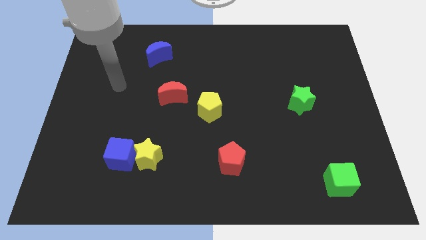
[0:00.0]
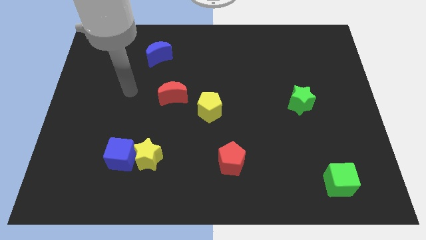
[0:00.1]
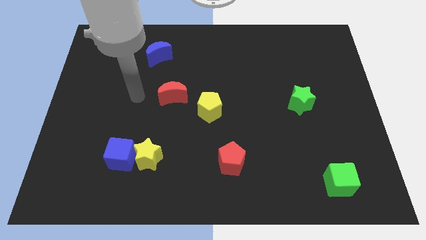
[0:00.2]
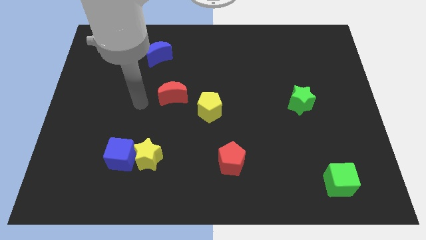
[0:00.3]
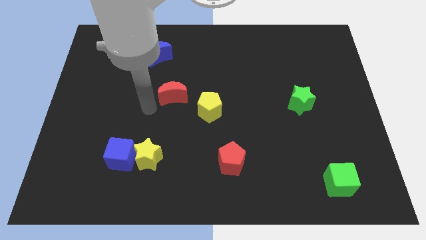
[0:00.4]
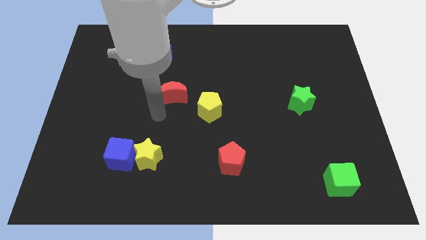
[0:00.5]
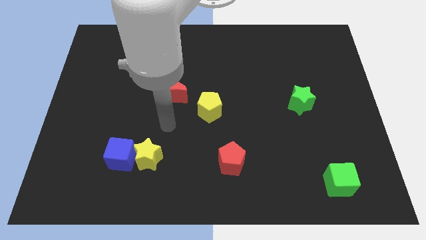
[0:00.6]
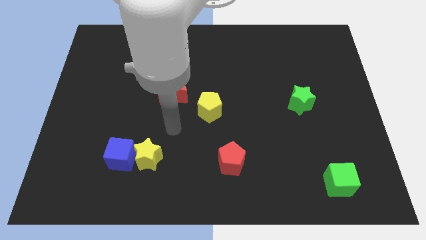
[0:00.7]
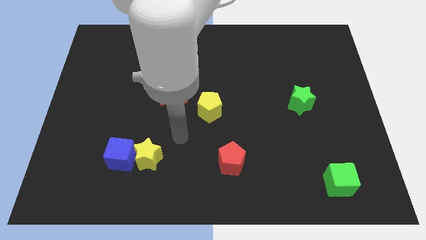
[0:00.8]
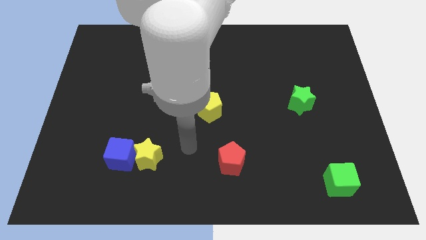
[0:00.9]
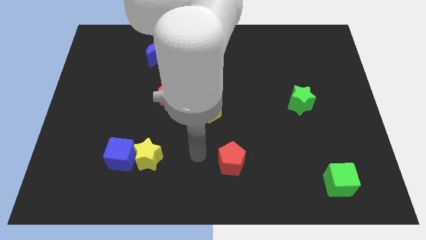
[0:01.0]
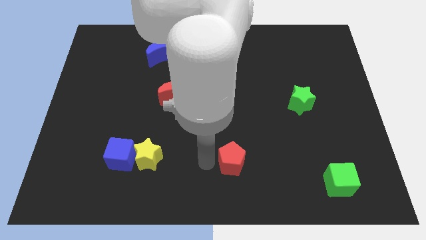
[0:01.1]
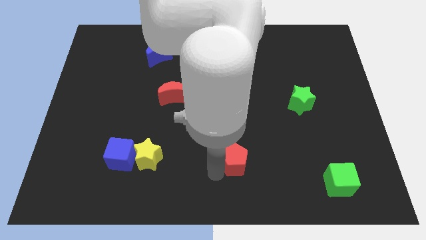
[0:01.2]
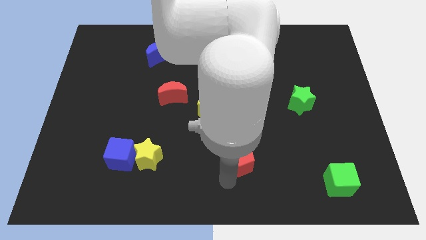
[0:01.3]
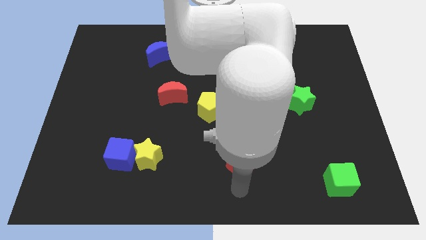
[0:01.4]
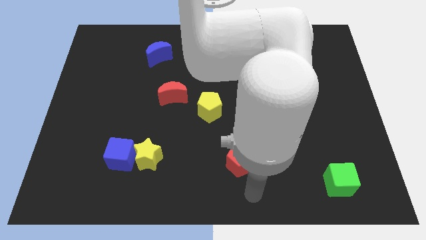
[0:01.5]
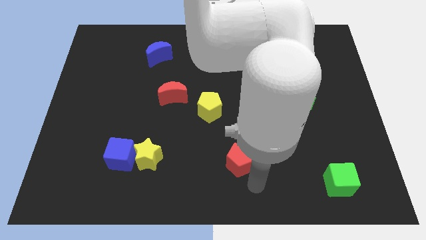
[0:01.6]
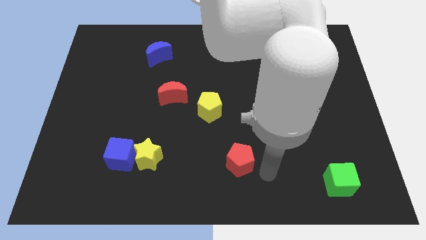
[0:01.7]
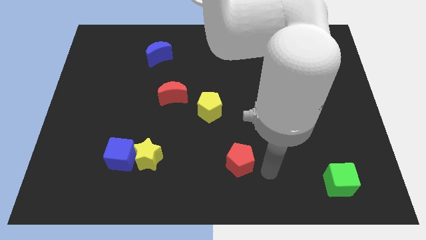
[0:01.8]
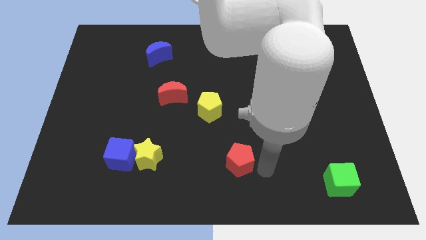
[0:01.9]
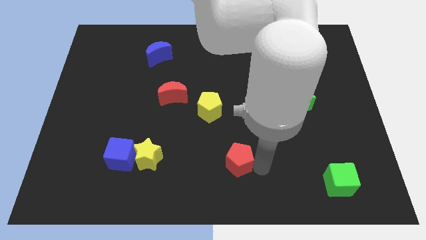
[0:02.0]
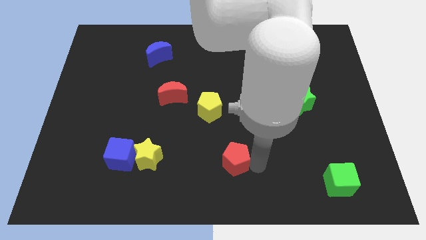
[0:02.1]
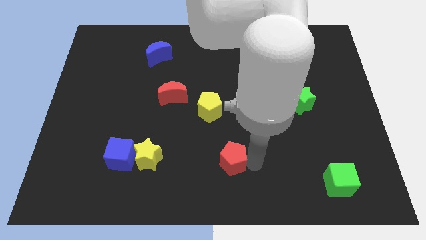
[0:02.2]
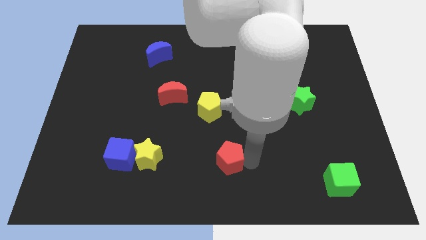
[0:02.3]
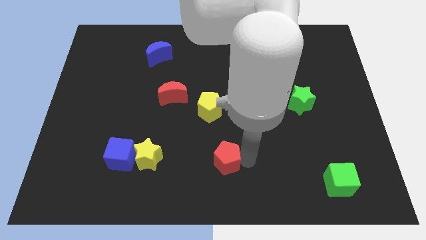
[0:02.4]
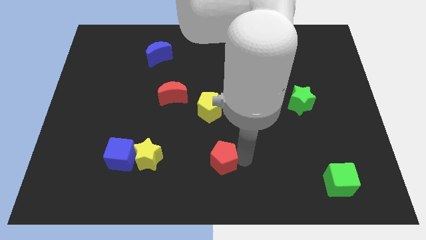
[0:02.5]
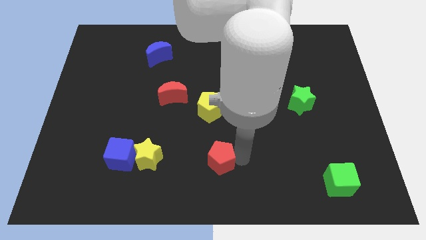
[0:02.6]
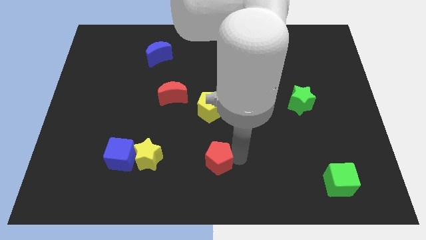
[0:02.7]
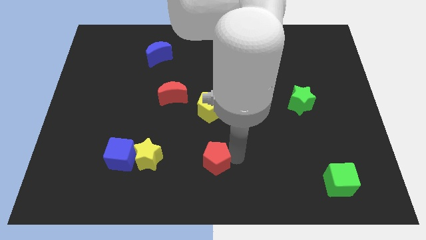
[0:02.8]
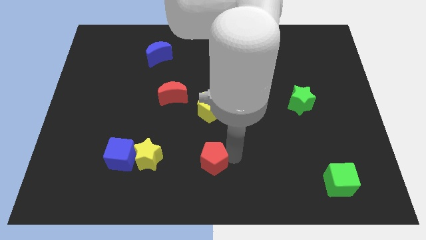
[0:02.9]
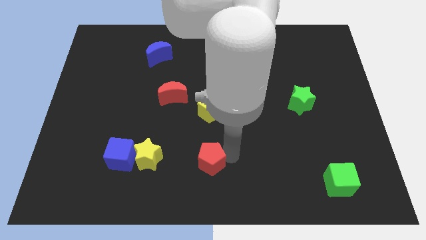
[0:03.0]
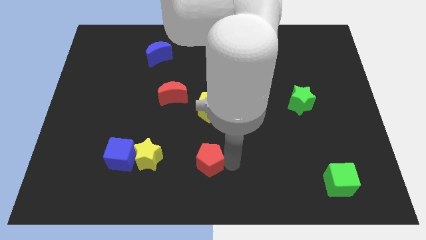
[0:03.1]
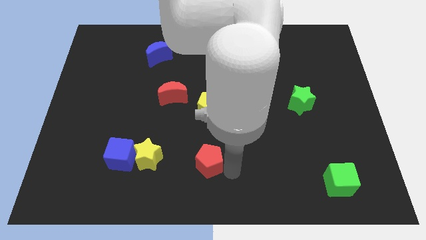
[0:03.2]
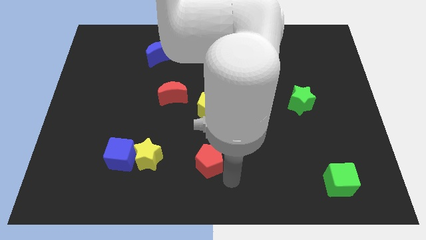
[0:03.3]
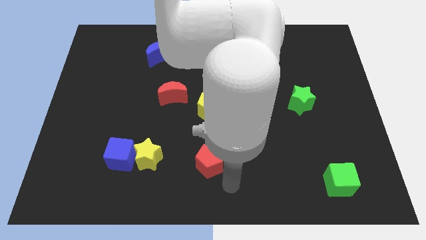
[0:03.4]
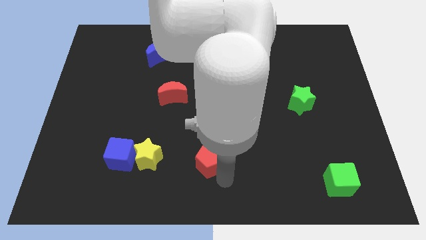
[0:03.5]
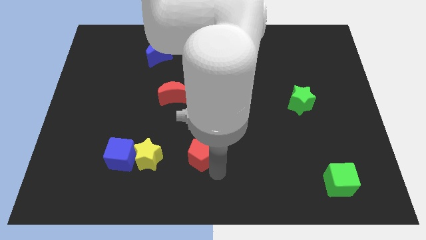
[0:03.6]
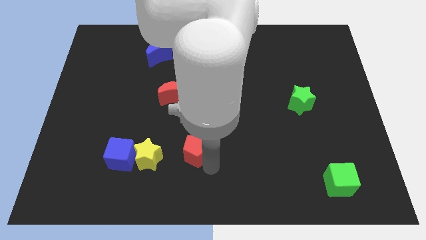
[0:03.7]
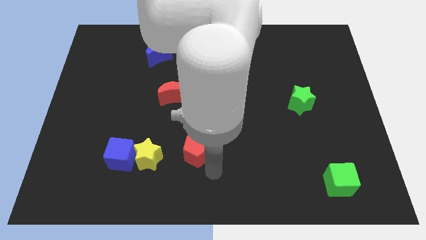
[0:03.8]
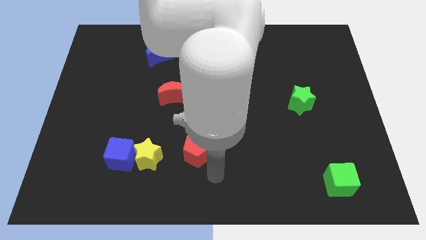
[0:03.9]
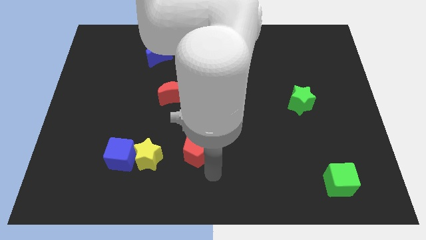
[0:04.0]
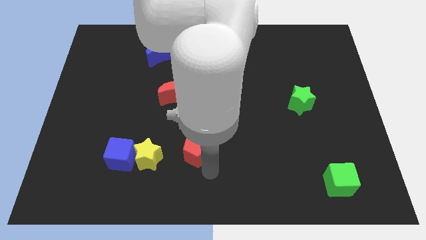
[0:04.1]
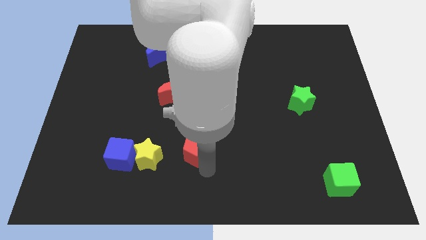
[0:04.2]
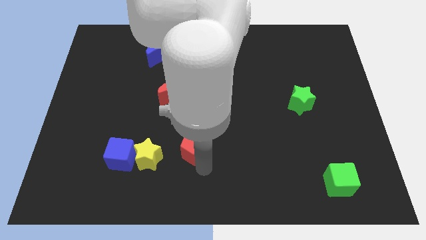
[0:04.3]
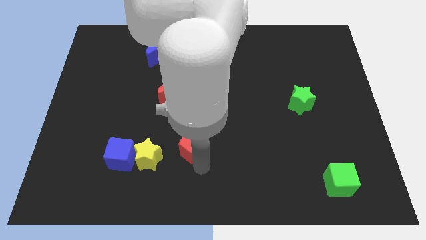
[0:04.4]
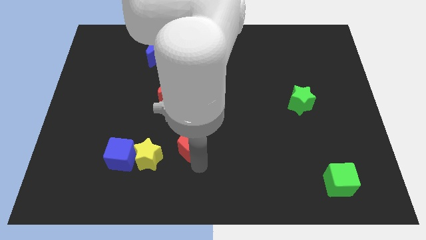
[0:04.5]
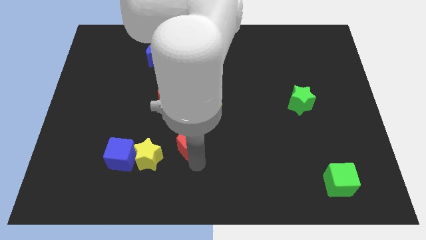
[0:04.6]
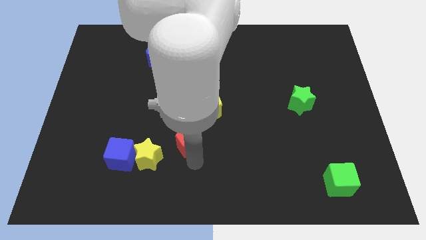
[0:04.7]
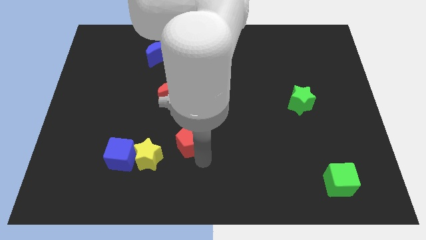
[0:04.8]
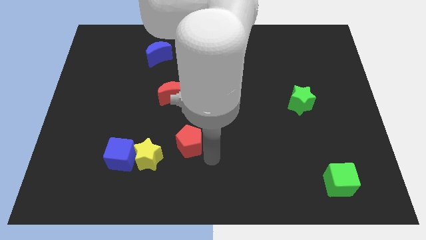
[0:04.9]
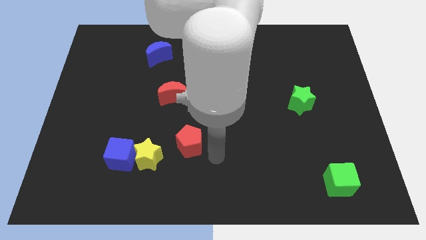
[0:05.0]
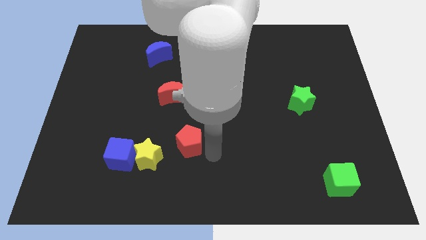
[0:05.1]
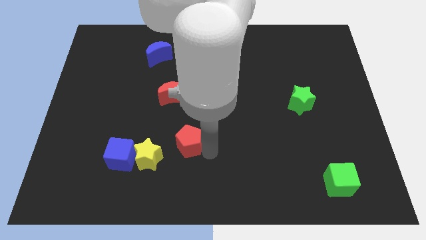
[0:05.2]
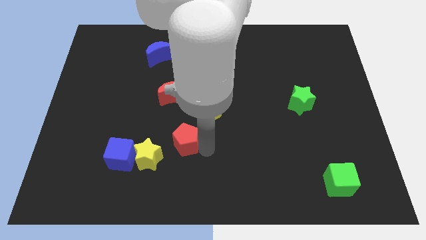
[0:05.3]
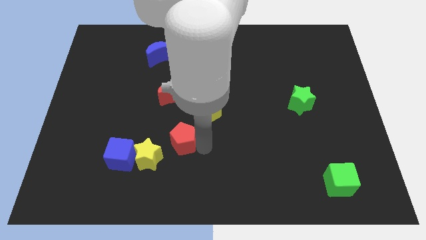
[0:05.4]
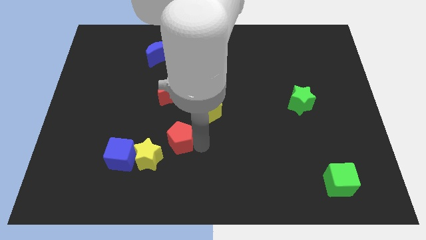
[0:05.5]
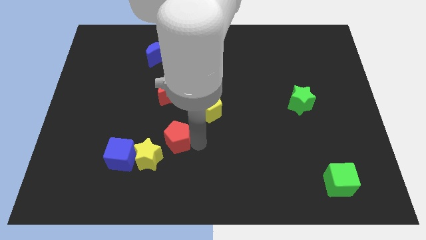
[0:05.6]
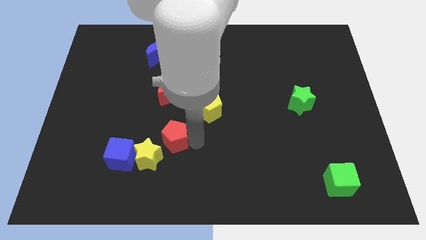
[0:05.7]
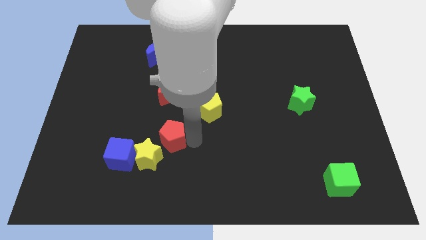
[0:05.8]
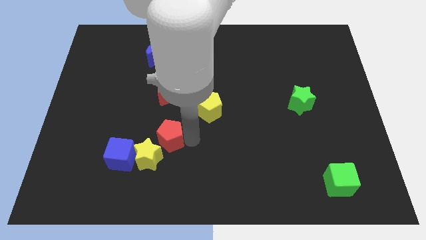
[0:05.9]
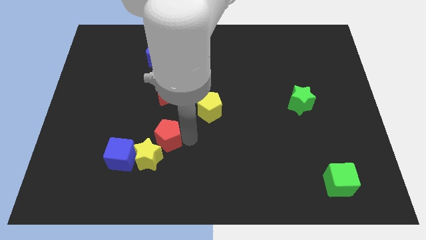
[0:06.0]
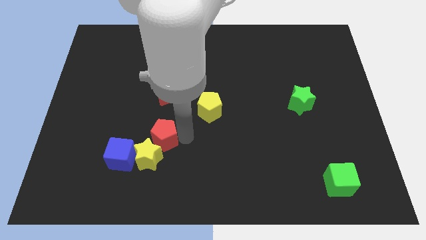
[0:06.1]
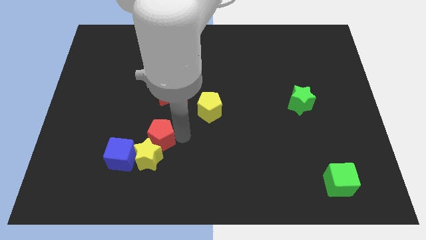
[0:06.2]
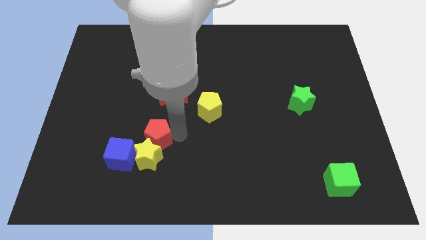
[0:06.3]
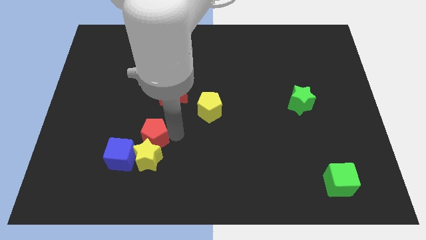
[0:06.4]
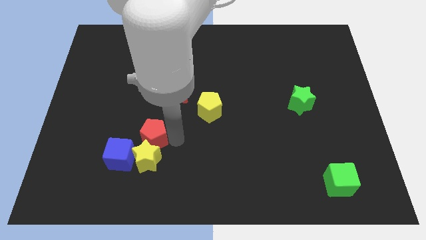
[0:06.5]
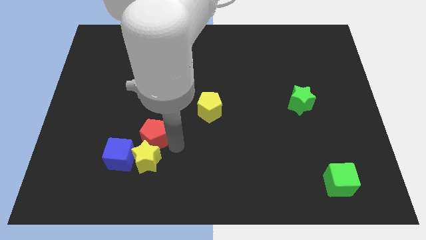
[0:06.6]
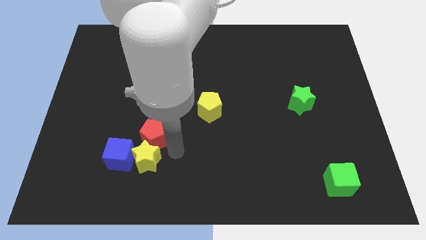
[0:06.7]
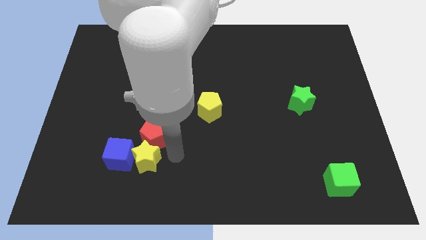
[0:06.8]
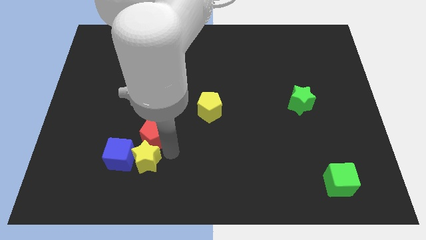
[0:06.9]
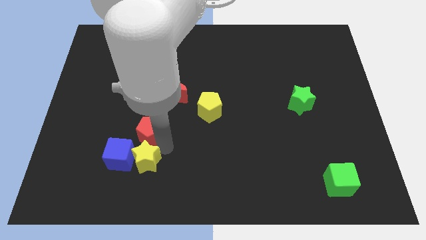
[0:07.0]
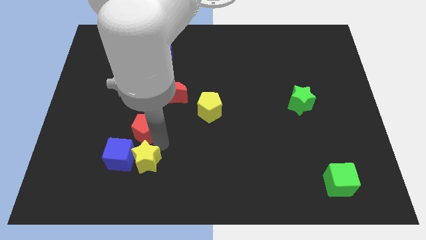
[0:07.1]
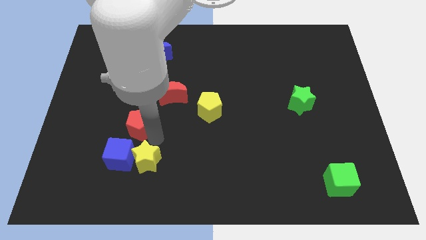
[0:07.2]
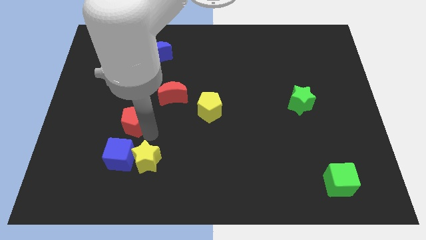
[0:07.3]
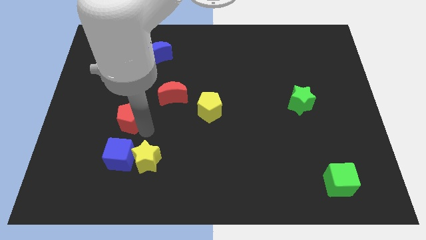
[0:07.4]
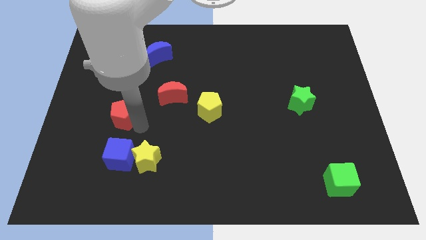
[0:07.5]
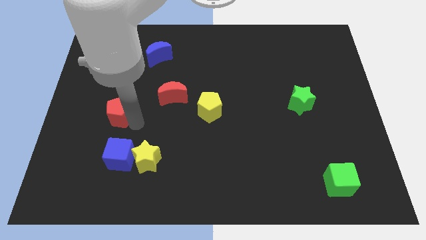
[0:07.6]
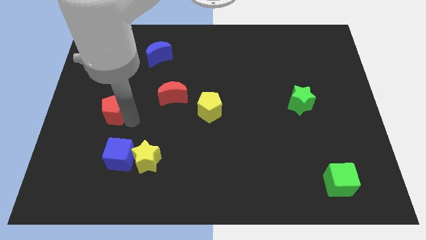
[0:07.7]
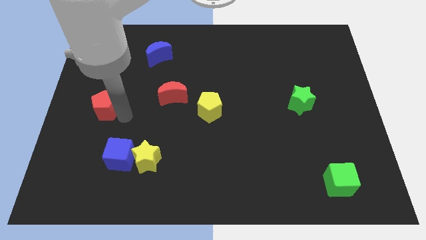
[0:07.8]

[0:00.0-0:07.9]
move the red pentagon to the center left
